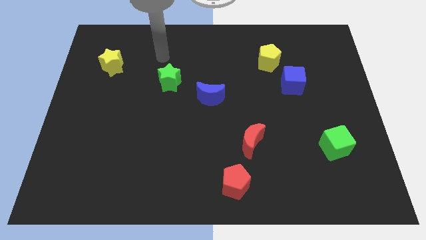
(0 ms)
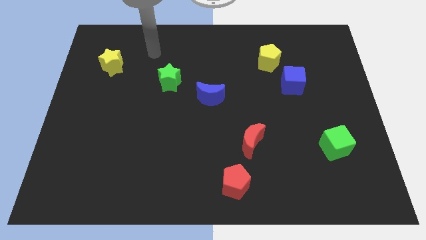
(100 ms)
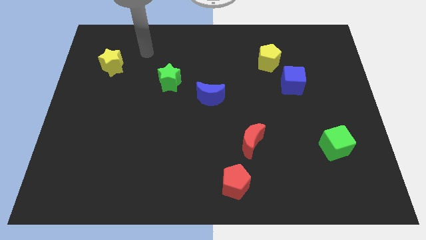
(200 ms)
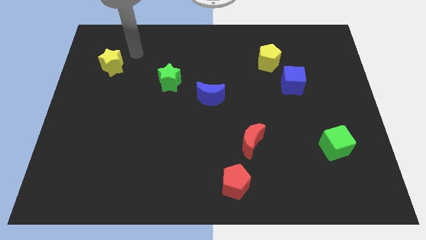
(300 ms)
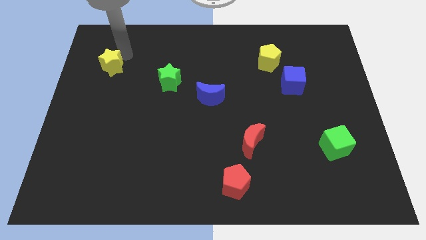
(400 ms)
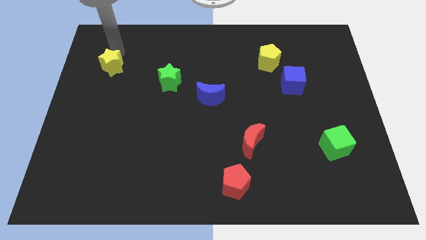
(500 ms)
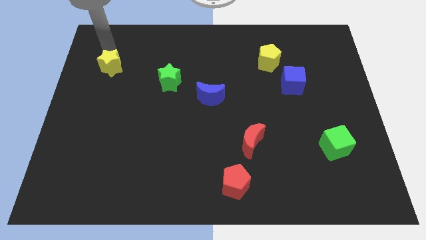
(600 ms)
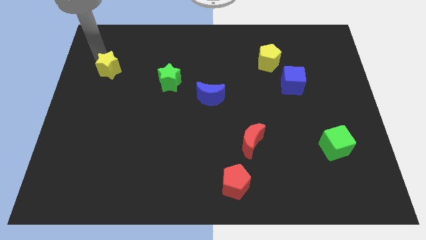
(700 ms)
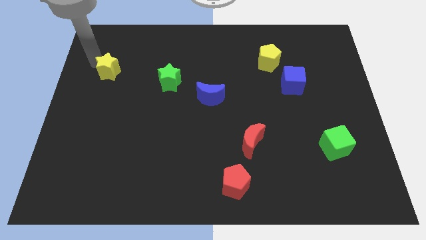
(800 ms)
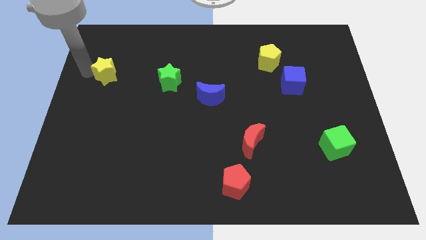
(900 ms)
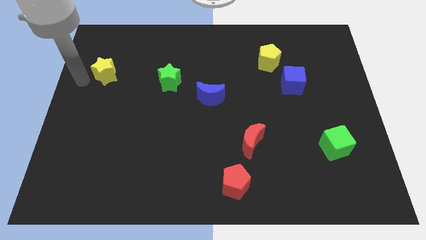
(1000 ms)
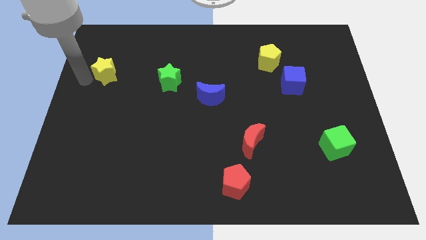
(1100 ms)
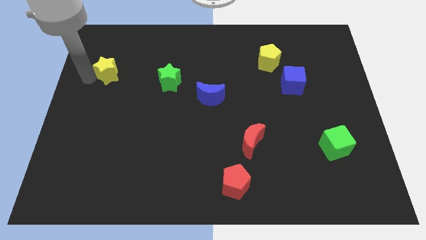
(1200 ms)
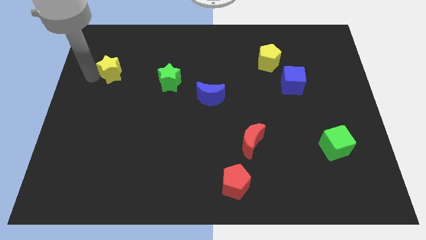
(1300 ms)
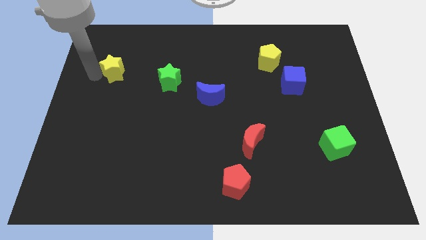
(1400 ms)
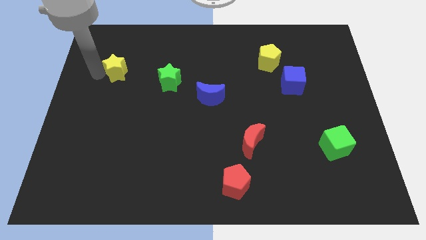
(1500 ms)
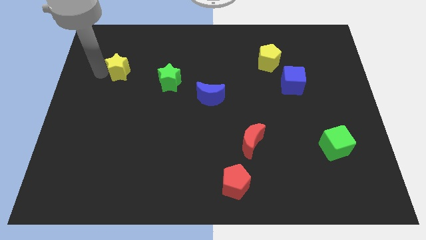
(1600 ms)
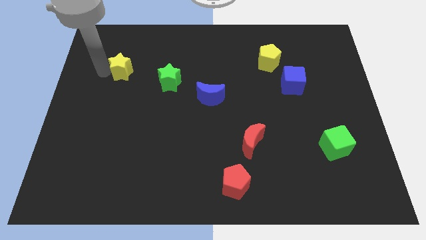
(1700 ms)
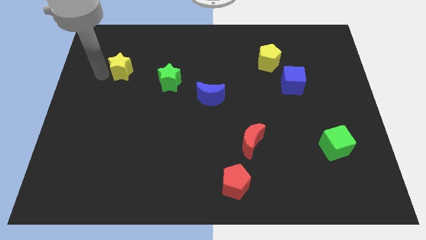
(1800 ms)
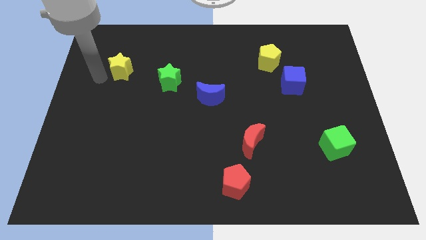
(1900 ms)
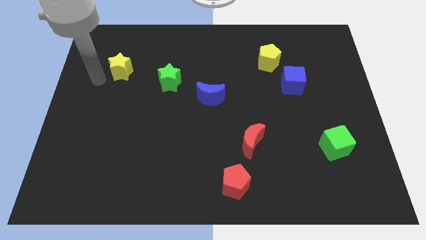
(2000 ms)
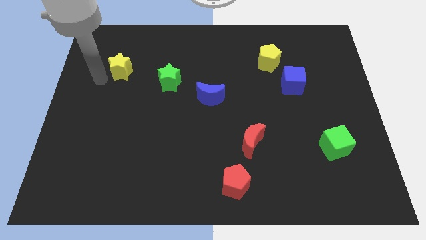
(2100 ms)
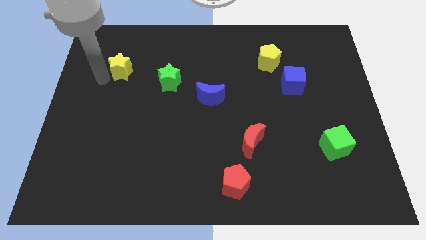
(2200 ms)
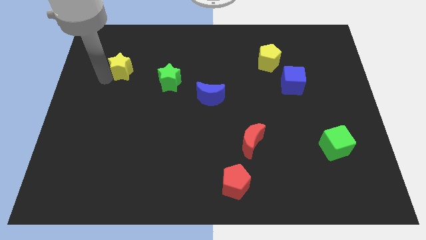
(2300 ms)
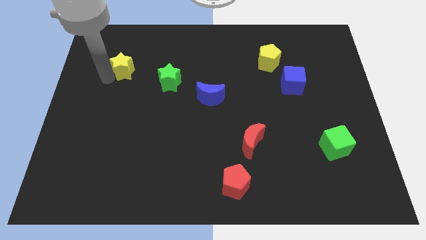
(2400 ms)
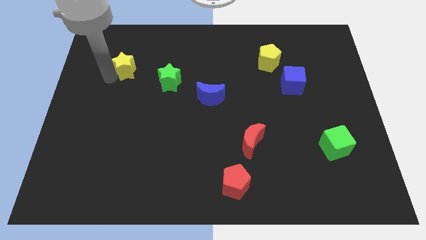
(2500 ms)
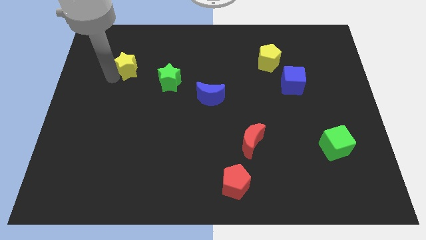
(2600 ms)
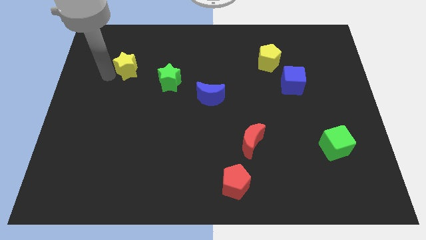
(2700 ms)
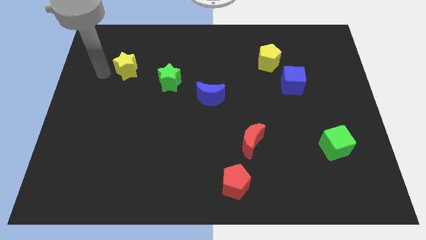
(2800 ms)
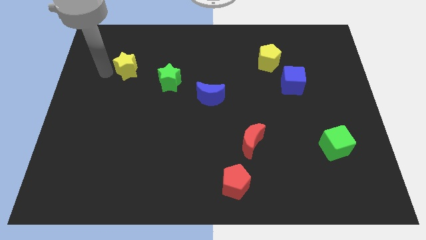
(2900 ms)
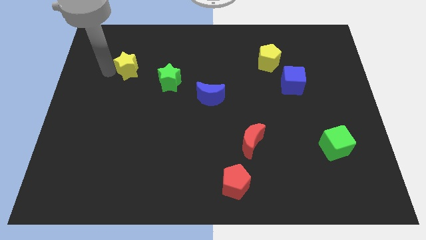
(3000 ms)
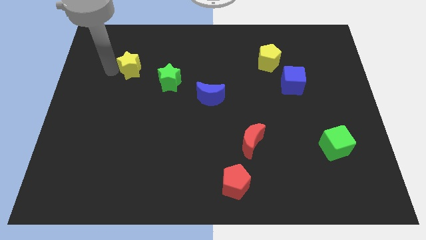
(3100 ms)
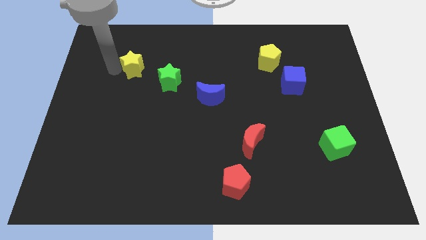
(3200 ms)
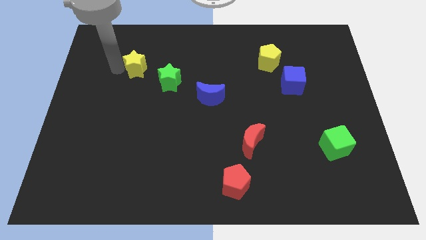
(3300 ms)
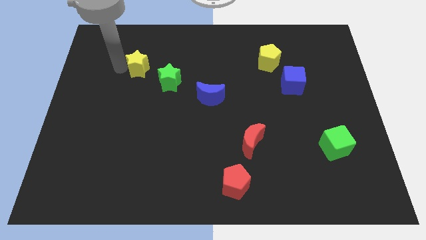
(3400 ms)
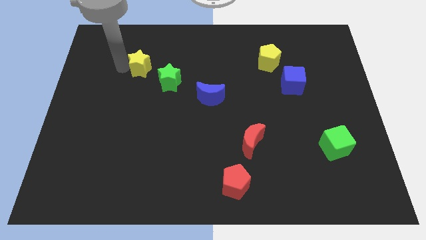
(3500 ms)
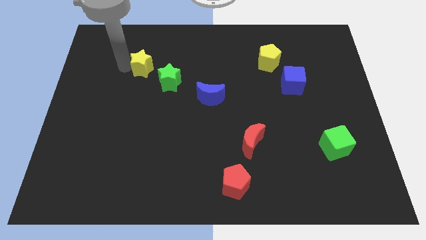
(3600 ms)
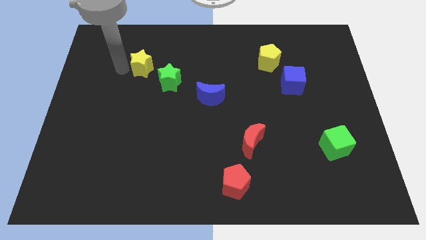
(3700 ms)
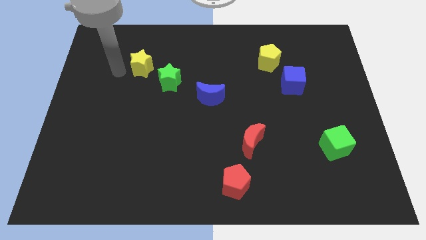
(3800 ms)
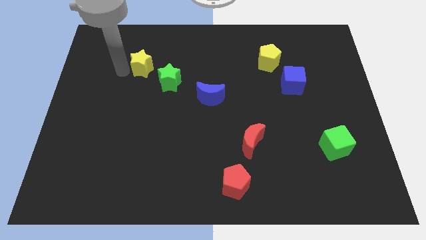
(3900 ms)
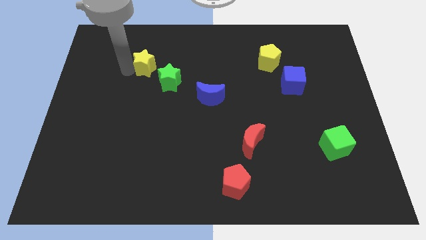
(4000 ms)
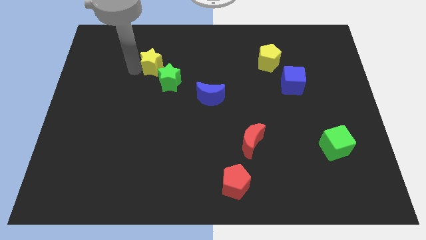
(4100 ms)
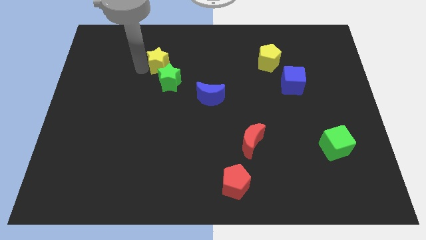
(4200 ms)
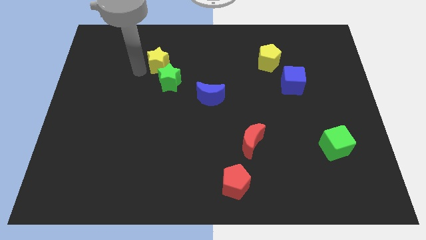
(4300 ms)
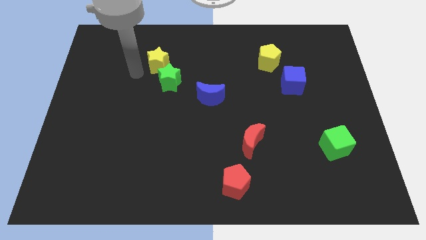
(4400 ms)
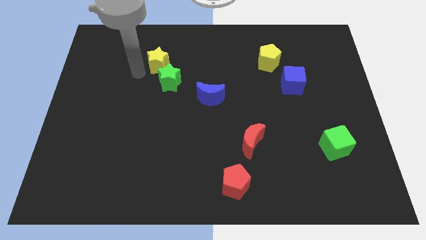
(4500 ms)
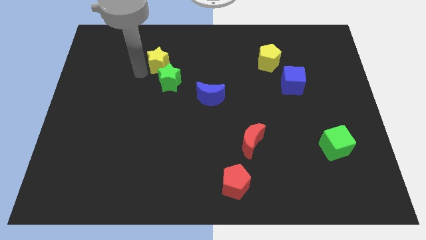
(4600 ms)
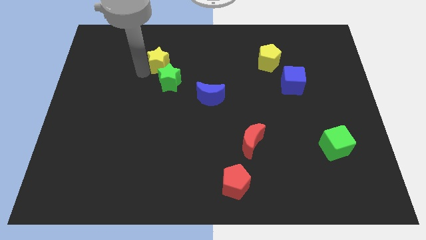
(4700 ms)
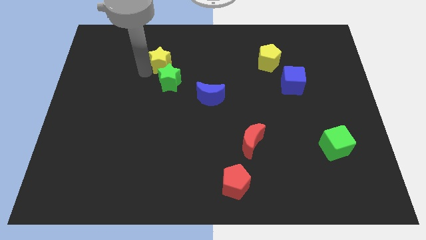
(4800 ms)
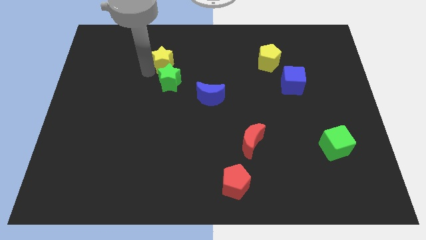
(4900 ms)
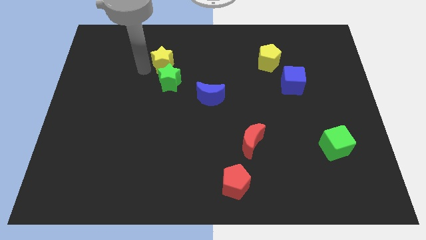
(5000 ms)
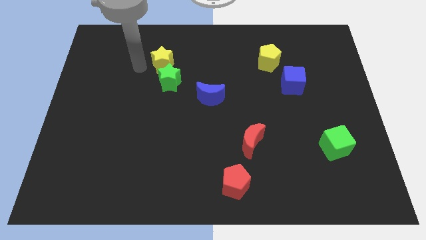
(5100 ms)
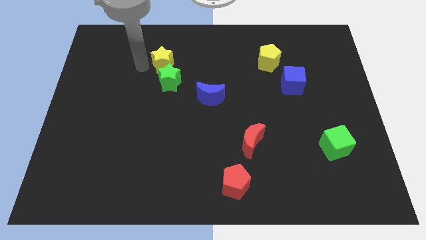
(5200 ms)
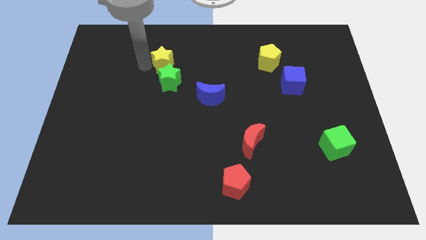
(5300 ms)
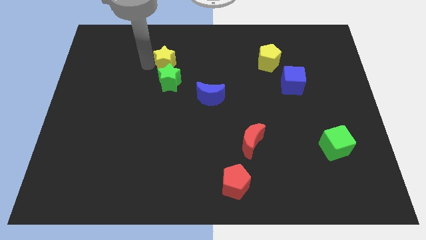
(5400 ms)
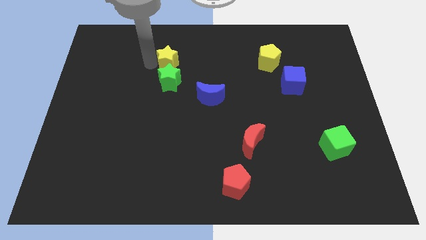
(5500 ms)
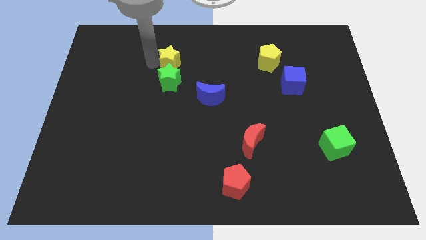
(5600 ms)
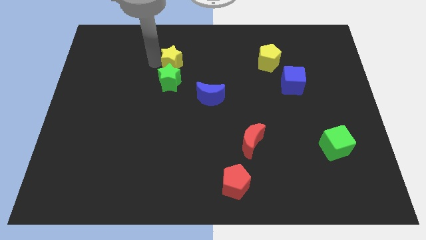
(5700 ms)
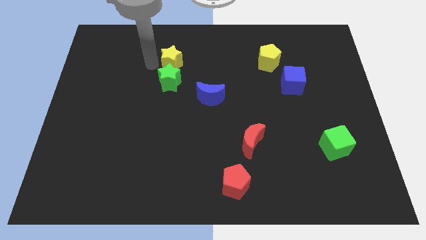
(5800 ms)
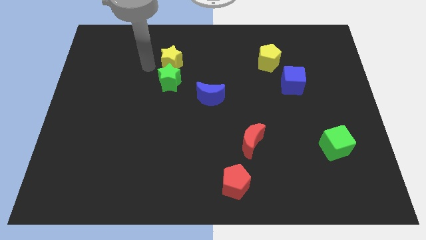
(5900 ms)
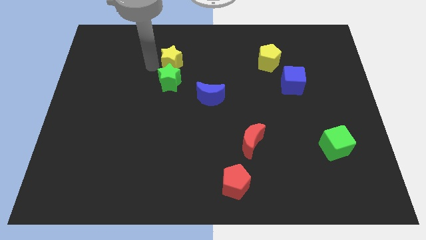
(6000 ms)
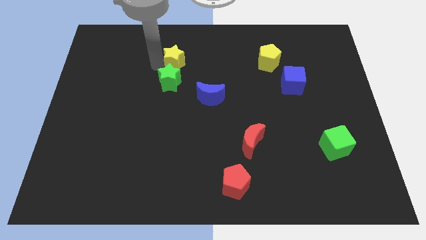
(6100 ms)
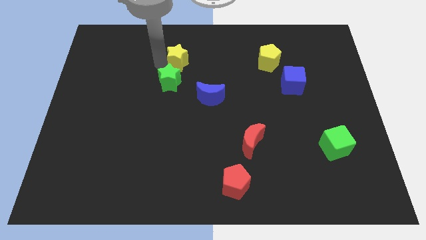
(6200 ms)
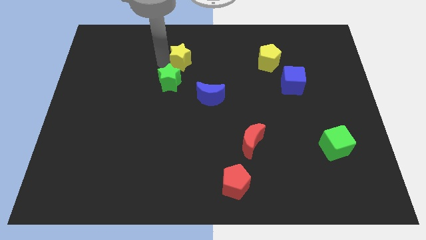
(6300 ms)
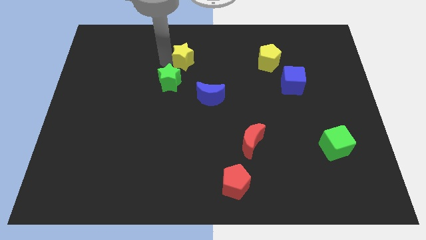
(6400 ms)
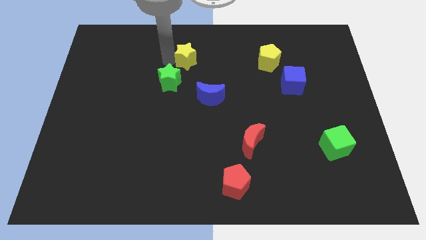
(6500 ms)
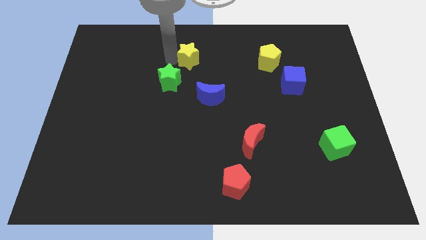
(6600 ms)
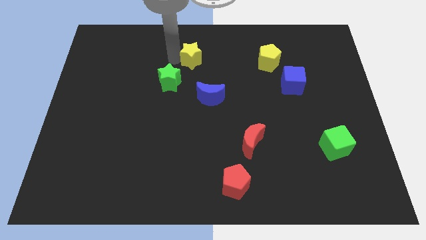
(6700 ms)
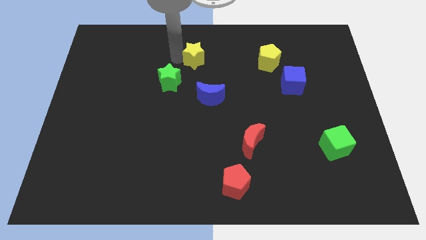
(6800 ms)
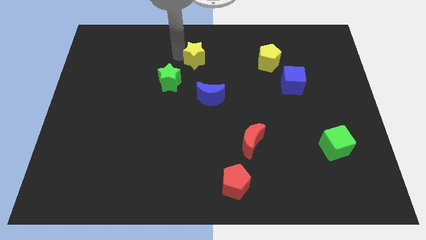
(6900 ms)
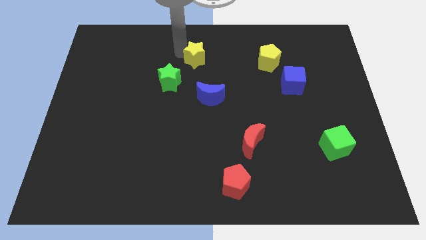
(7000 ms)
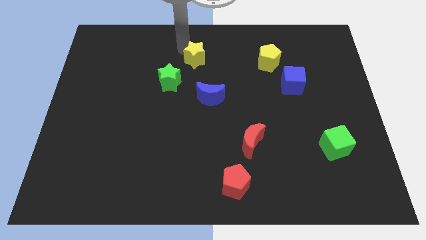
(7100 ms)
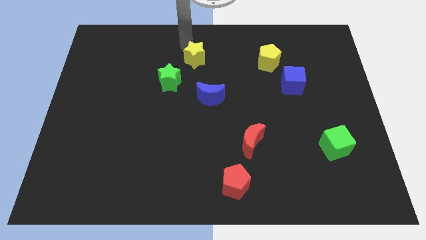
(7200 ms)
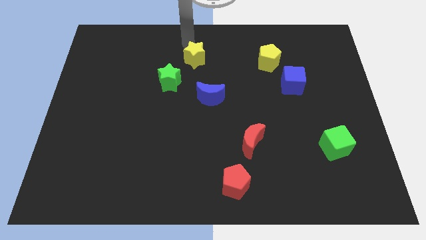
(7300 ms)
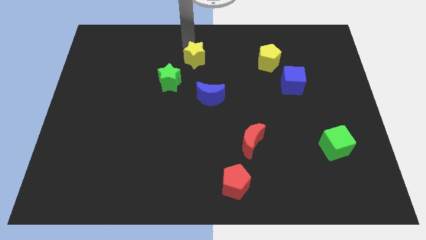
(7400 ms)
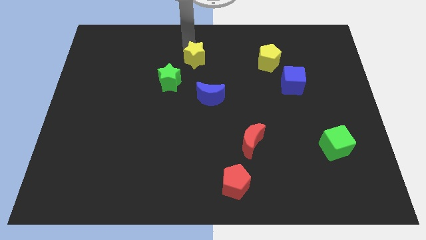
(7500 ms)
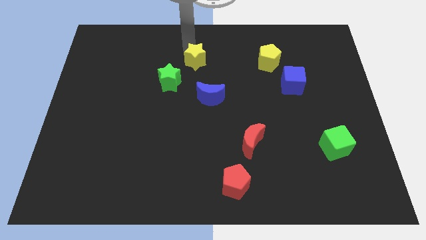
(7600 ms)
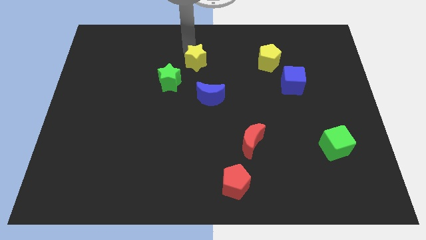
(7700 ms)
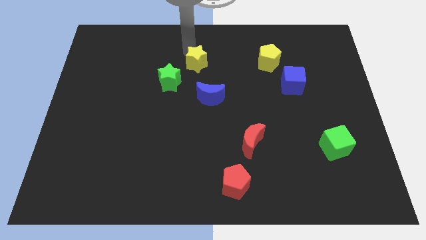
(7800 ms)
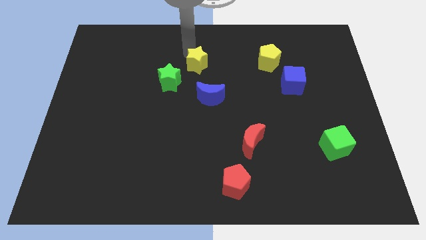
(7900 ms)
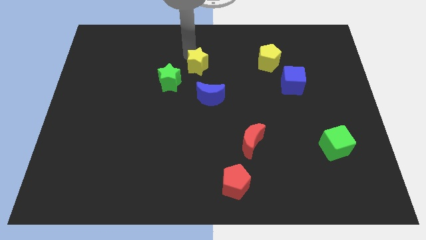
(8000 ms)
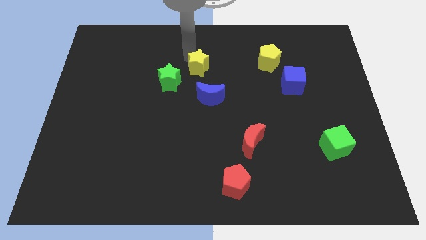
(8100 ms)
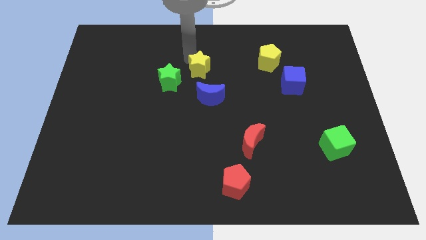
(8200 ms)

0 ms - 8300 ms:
push the yellow star diagonally up and to the left of the blue moon

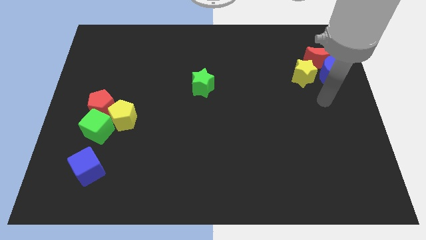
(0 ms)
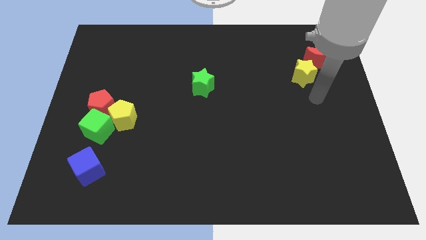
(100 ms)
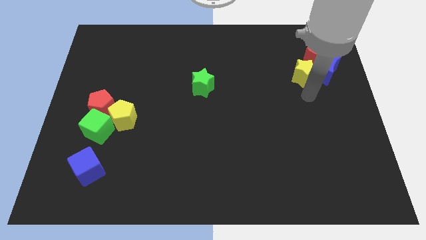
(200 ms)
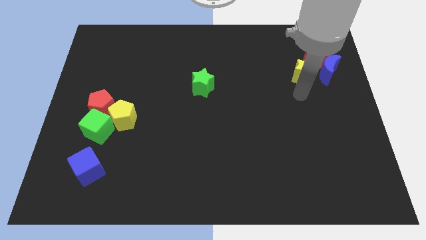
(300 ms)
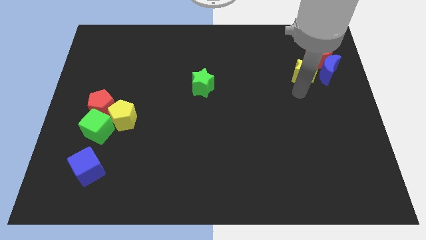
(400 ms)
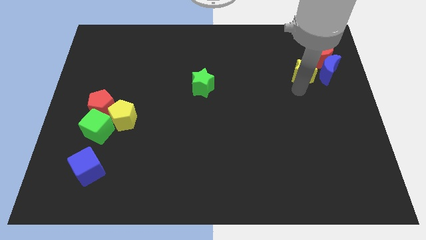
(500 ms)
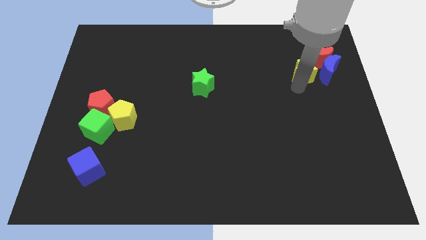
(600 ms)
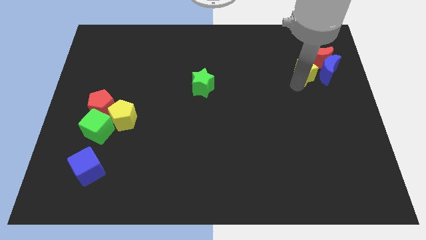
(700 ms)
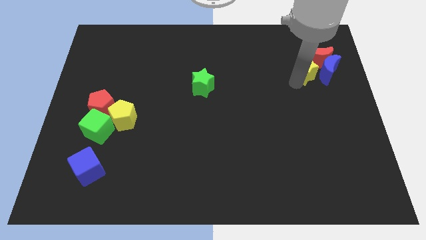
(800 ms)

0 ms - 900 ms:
move the yellow star diagonally up and to the left of the blue moon
